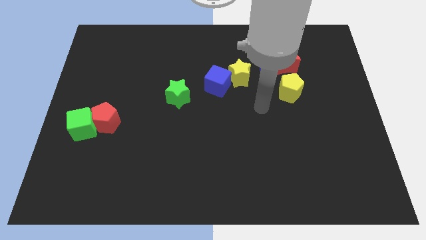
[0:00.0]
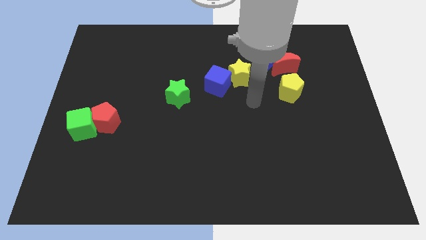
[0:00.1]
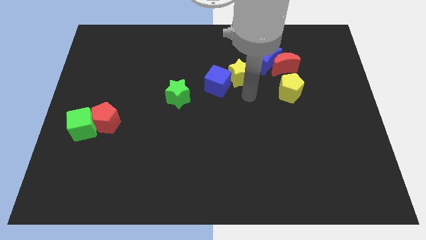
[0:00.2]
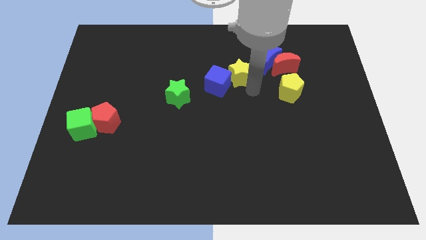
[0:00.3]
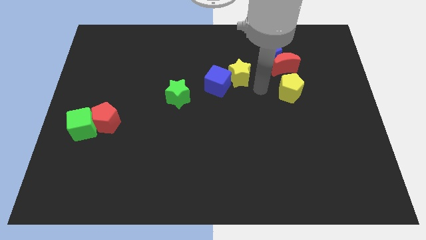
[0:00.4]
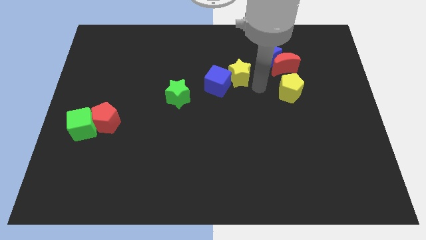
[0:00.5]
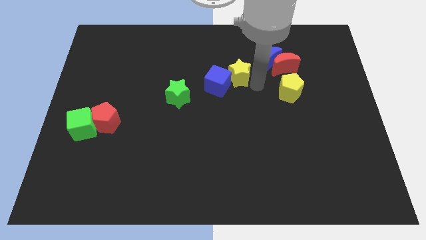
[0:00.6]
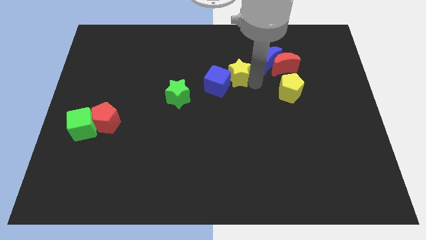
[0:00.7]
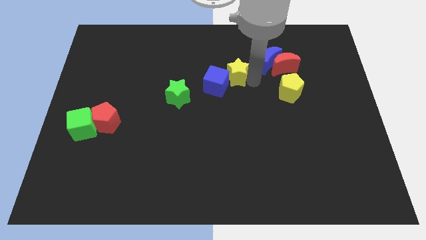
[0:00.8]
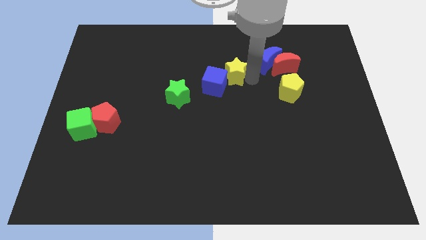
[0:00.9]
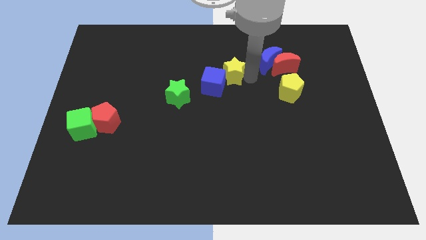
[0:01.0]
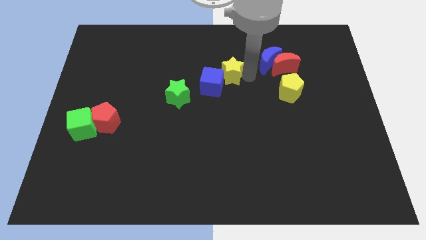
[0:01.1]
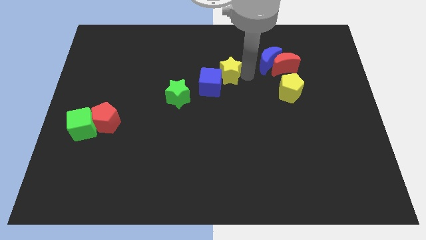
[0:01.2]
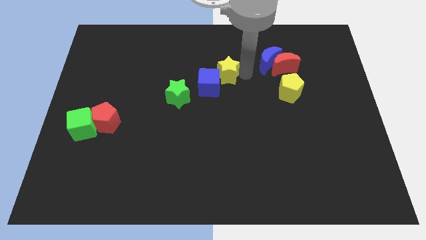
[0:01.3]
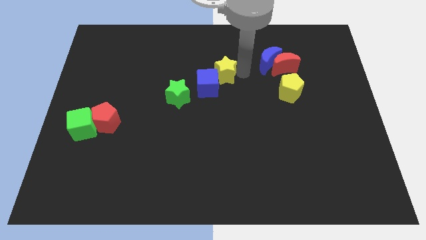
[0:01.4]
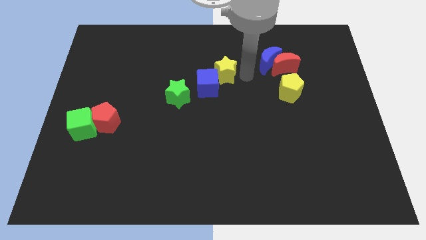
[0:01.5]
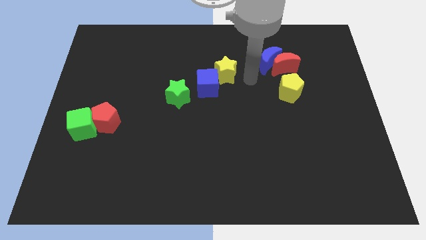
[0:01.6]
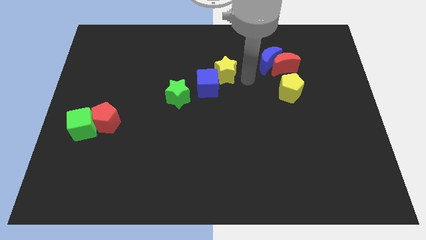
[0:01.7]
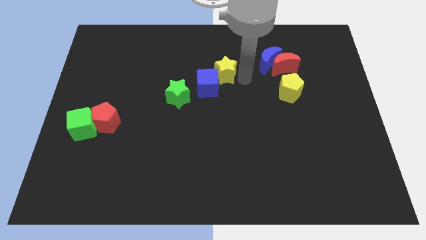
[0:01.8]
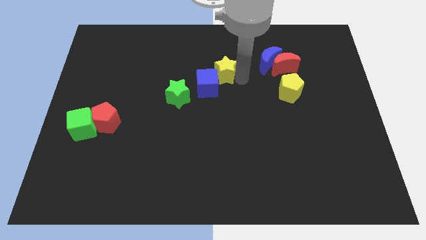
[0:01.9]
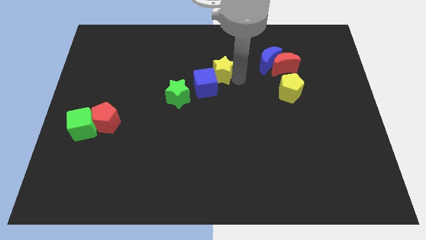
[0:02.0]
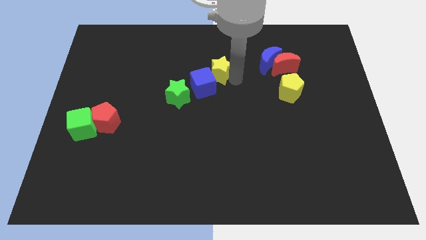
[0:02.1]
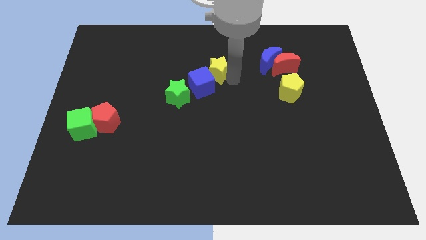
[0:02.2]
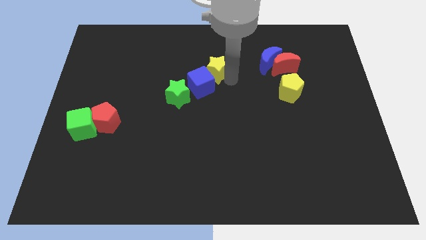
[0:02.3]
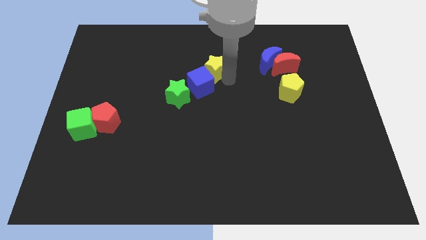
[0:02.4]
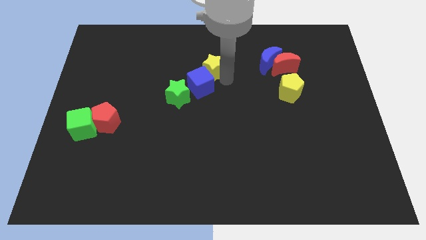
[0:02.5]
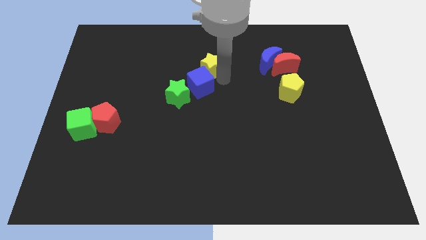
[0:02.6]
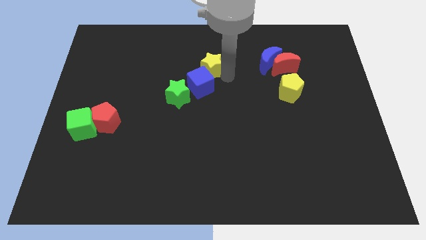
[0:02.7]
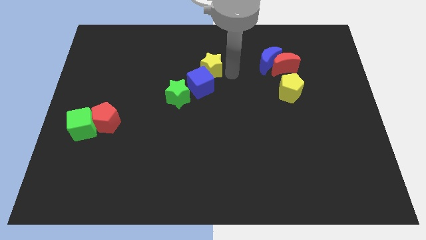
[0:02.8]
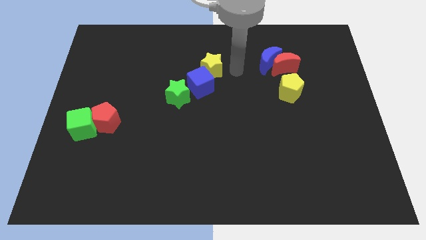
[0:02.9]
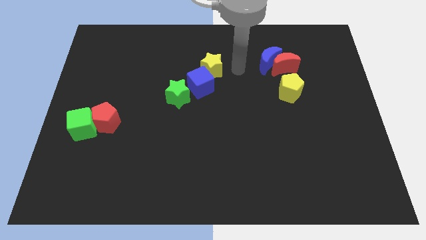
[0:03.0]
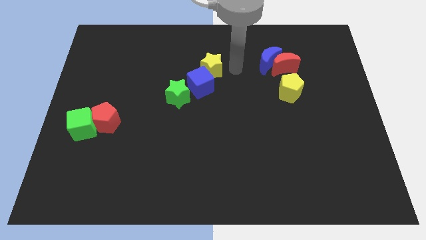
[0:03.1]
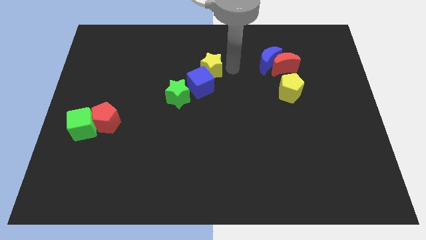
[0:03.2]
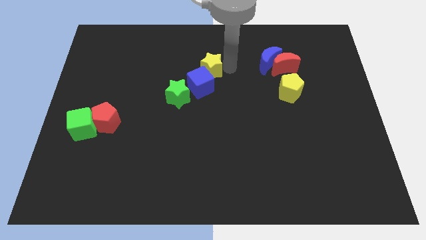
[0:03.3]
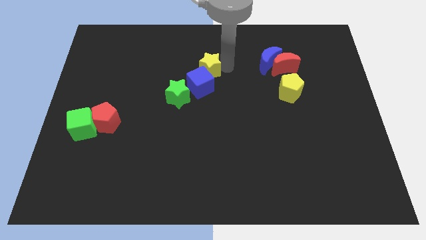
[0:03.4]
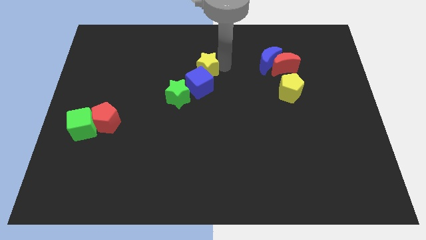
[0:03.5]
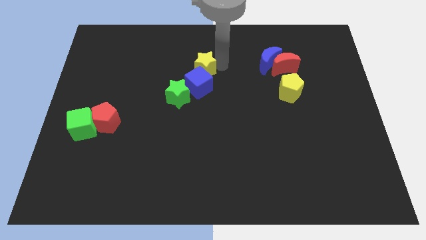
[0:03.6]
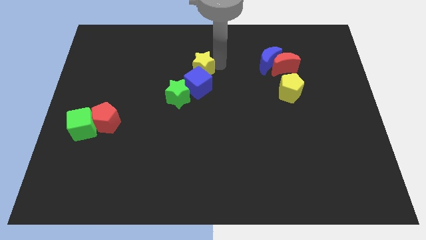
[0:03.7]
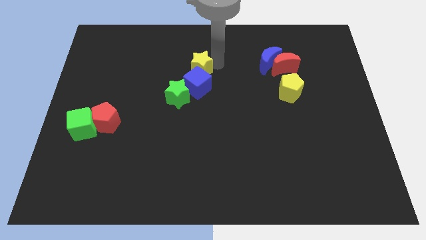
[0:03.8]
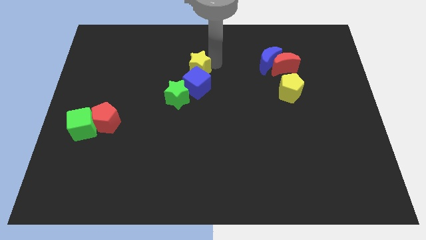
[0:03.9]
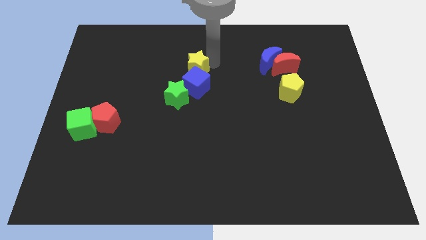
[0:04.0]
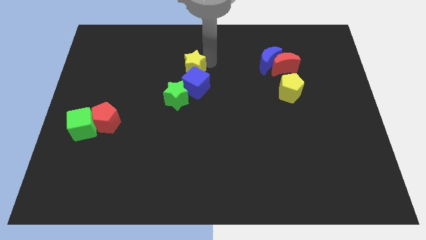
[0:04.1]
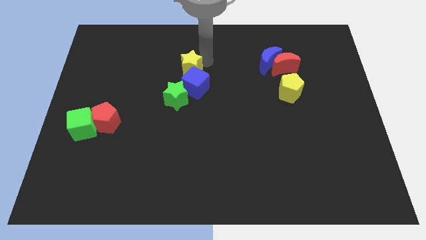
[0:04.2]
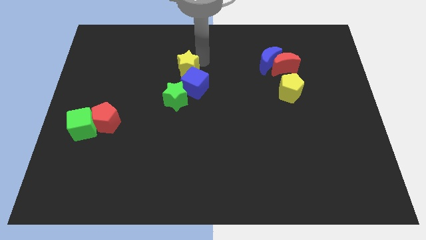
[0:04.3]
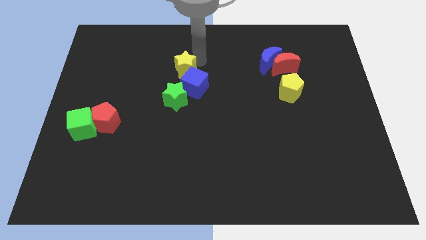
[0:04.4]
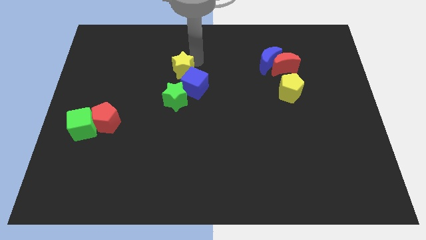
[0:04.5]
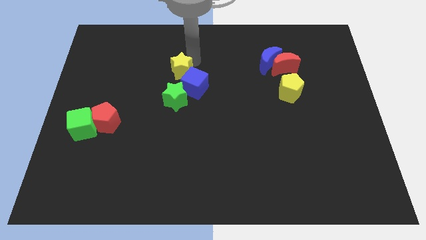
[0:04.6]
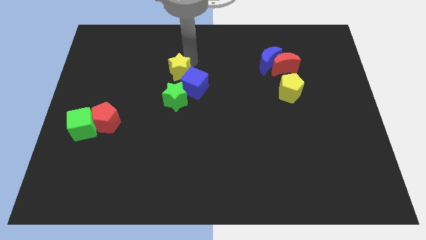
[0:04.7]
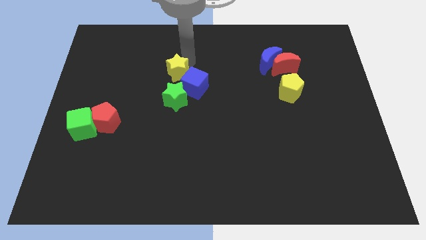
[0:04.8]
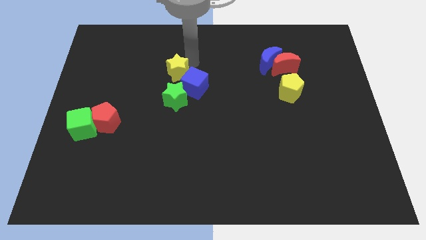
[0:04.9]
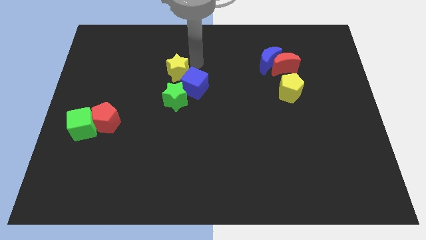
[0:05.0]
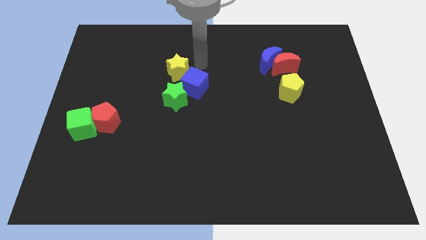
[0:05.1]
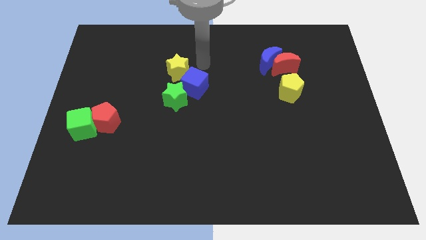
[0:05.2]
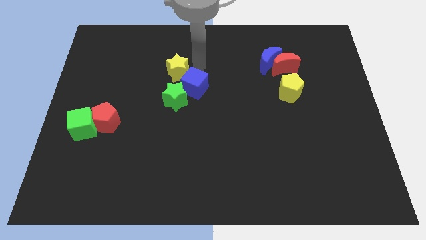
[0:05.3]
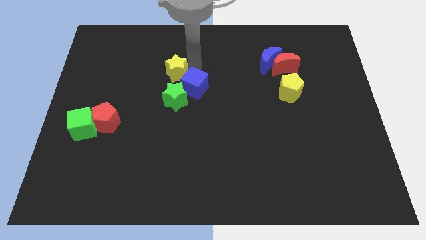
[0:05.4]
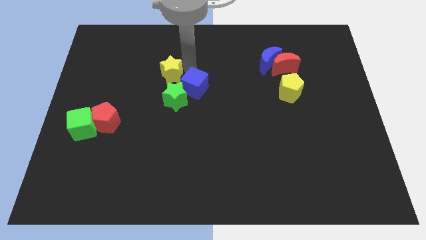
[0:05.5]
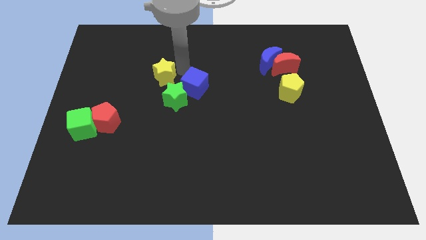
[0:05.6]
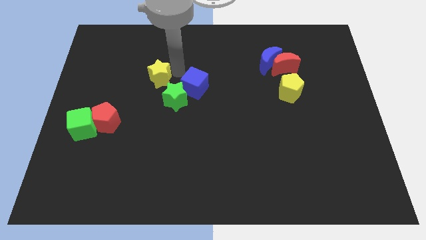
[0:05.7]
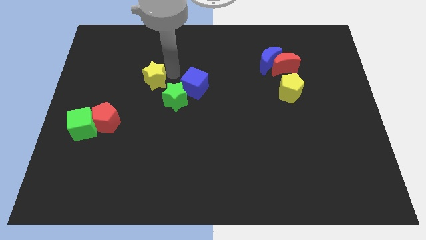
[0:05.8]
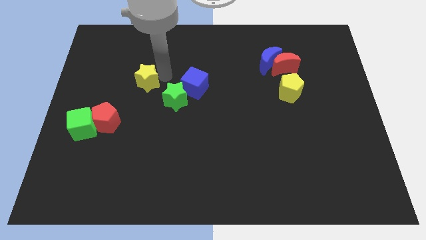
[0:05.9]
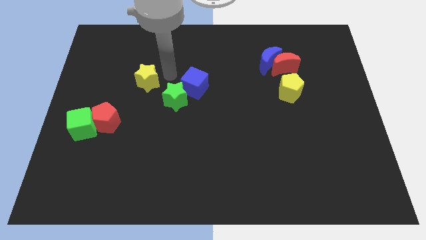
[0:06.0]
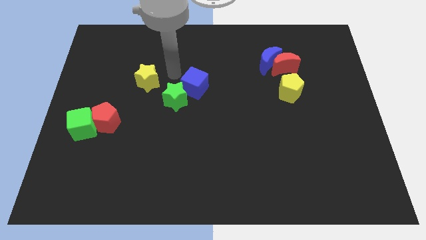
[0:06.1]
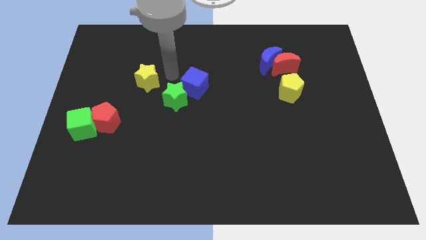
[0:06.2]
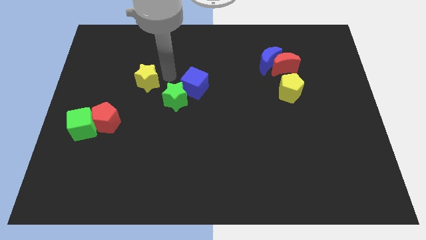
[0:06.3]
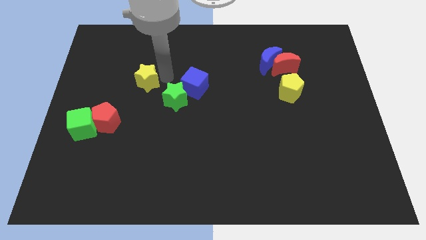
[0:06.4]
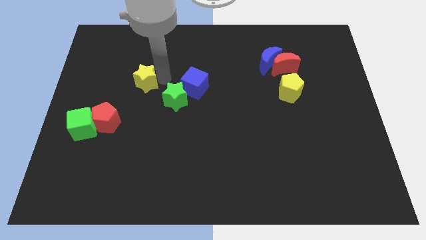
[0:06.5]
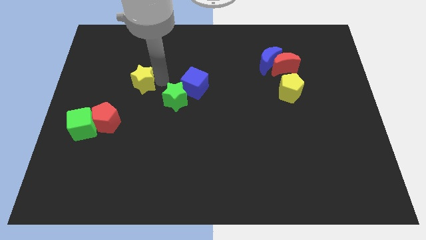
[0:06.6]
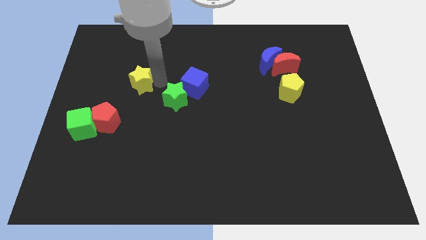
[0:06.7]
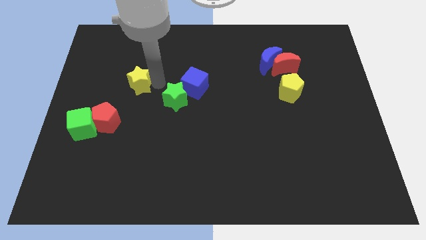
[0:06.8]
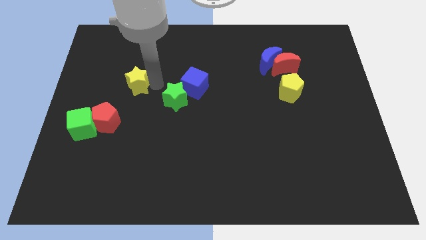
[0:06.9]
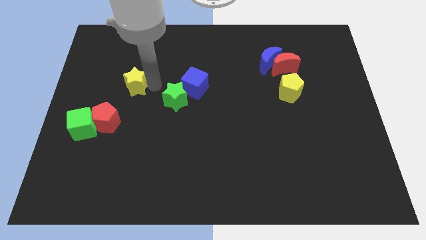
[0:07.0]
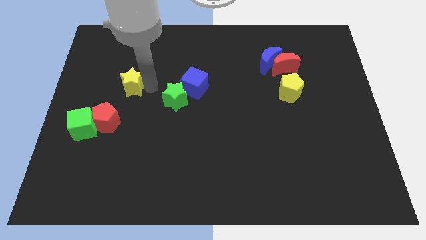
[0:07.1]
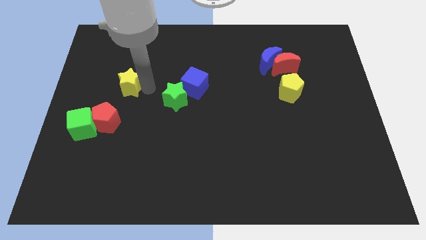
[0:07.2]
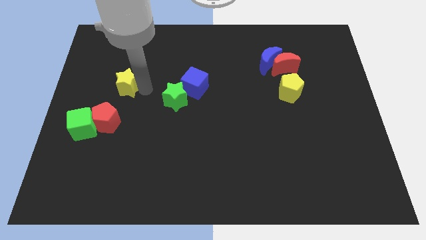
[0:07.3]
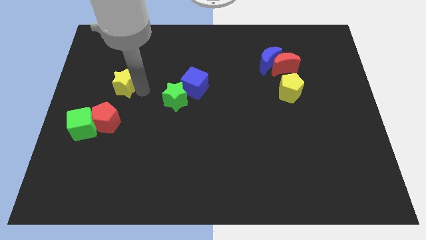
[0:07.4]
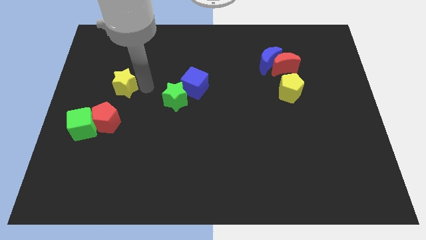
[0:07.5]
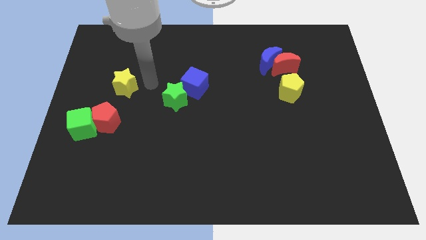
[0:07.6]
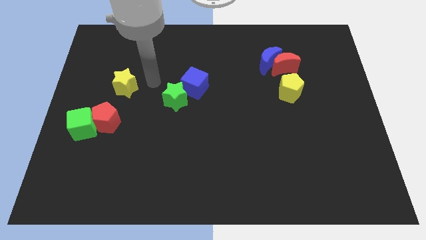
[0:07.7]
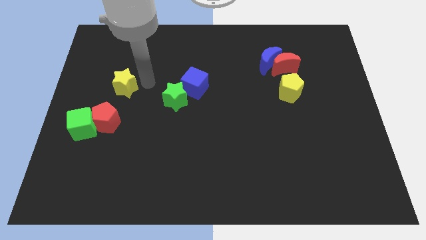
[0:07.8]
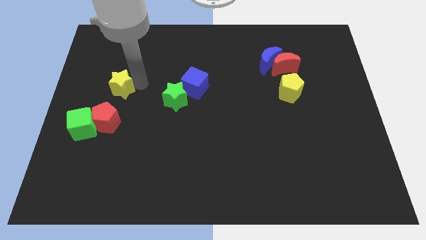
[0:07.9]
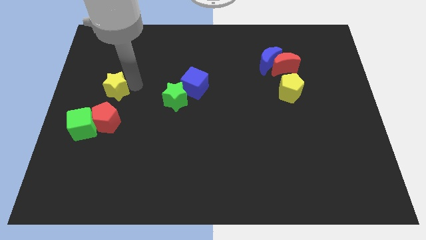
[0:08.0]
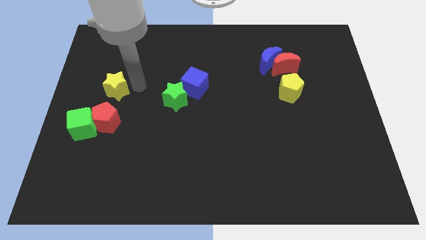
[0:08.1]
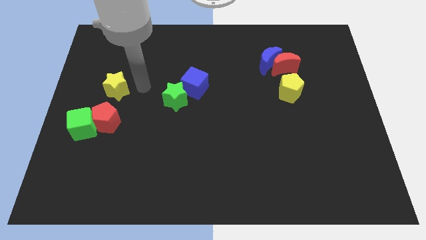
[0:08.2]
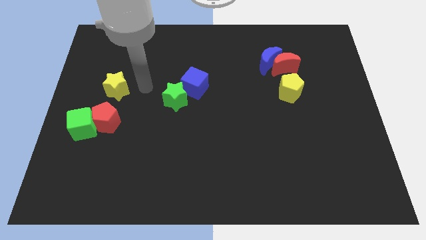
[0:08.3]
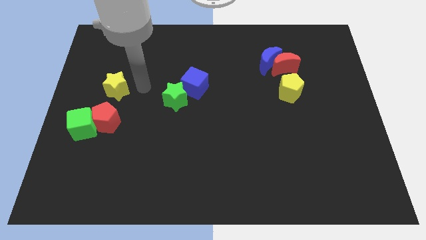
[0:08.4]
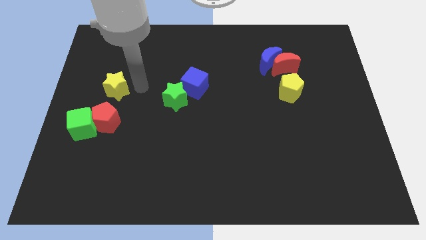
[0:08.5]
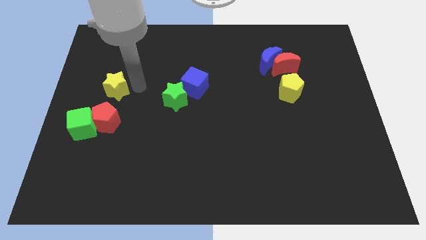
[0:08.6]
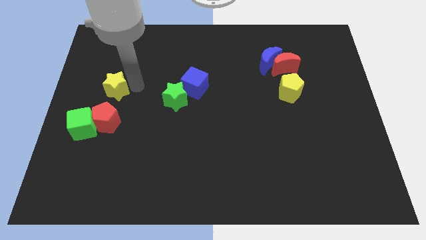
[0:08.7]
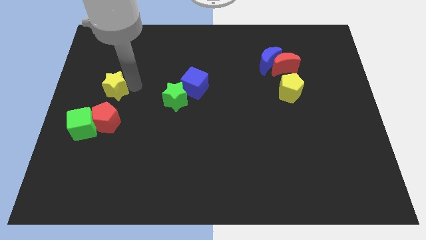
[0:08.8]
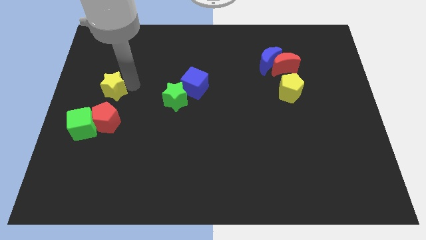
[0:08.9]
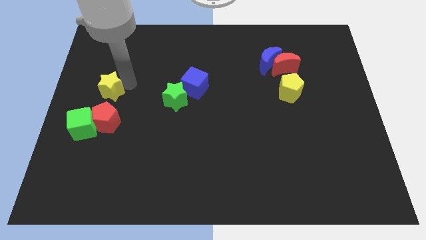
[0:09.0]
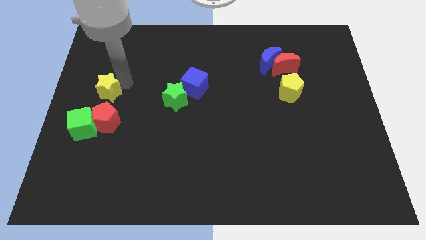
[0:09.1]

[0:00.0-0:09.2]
push the yellow star to the center left
